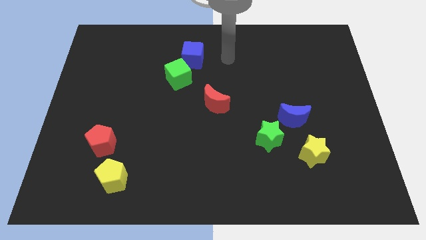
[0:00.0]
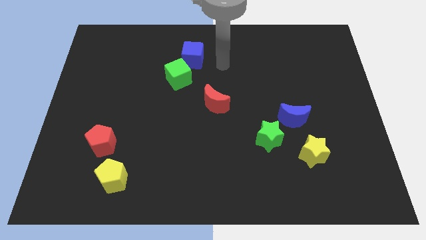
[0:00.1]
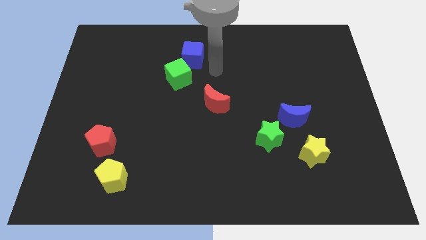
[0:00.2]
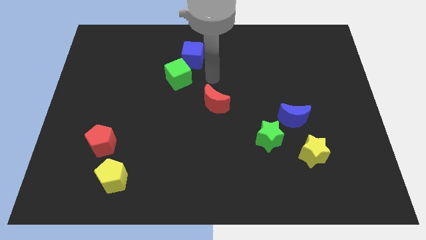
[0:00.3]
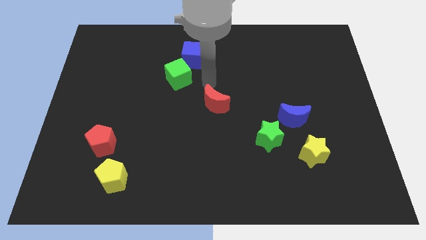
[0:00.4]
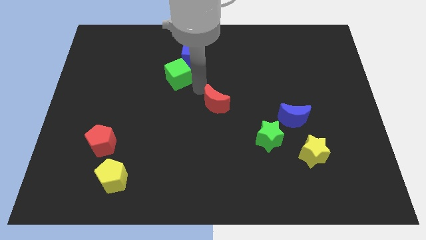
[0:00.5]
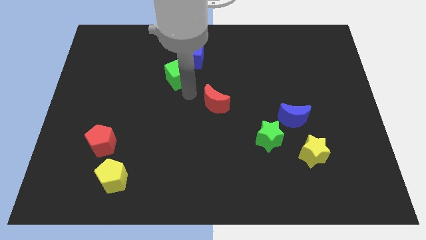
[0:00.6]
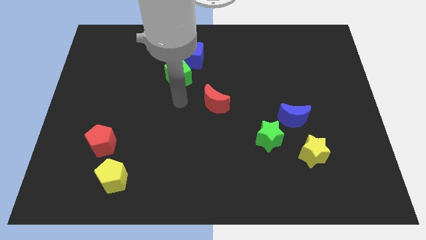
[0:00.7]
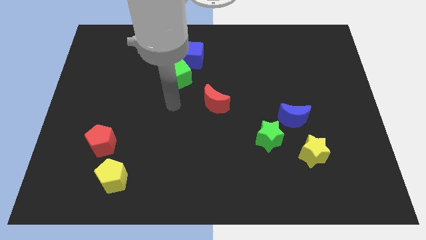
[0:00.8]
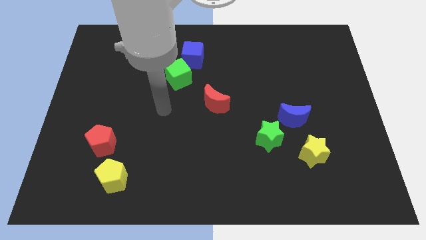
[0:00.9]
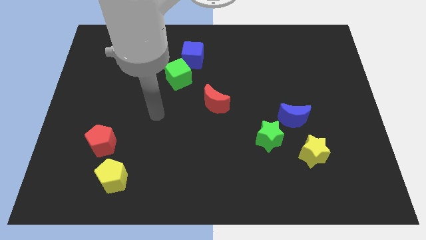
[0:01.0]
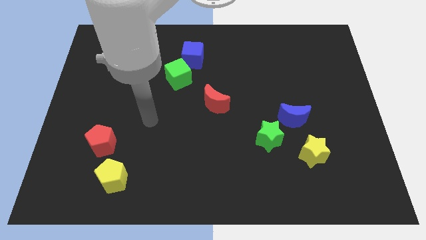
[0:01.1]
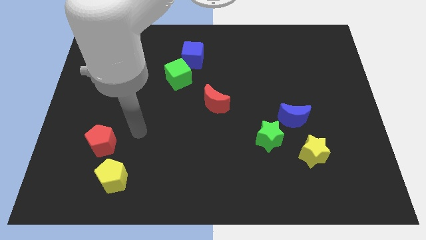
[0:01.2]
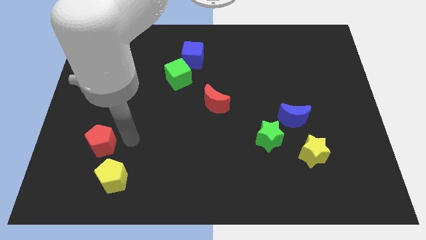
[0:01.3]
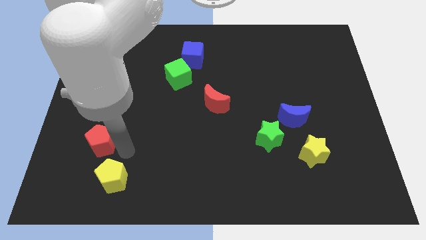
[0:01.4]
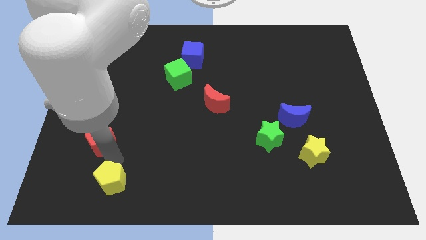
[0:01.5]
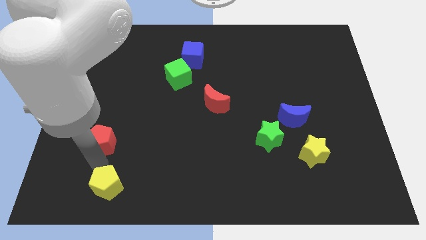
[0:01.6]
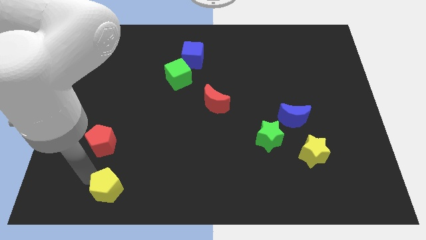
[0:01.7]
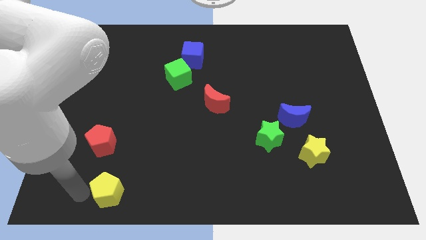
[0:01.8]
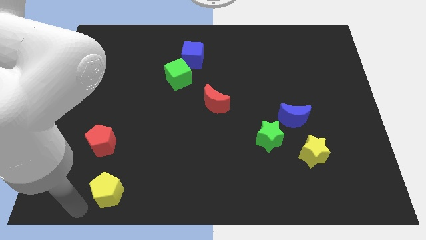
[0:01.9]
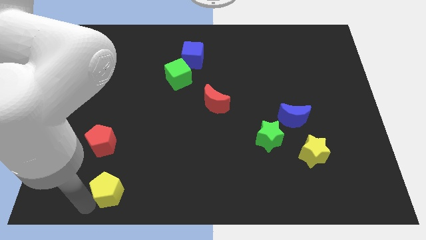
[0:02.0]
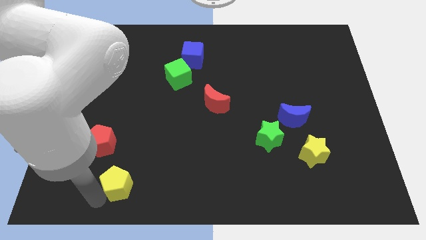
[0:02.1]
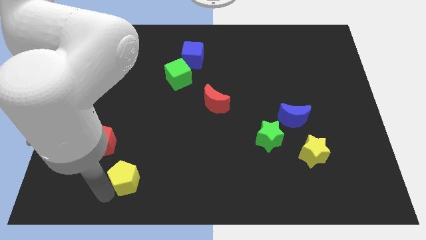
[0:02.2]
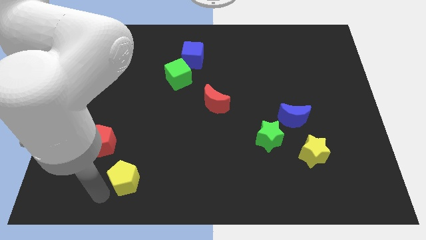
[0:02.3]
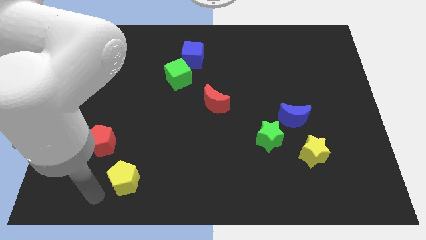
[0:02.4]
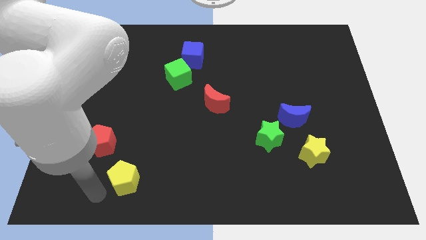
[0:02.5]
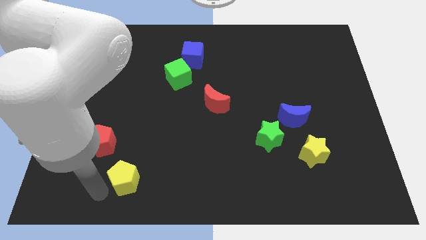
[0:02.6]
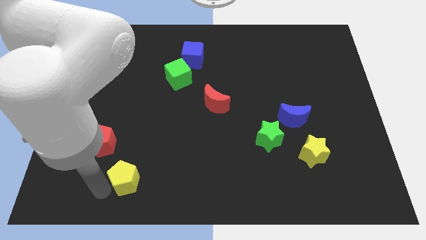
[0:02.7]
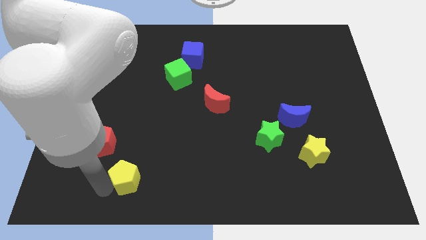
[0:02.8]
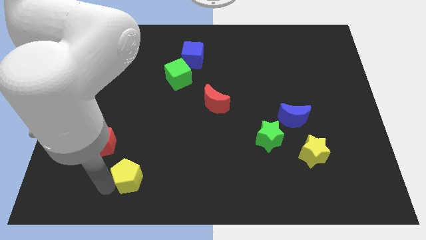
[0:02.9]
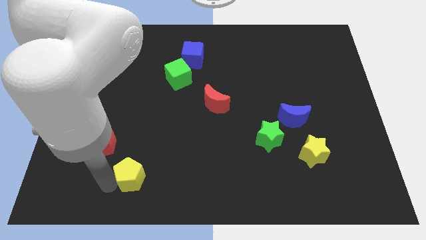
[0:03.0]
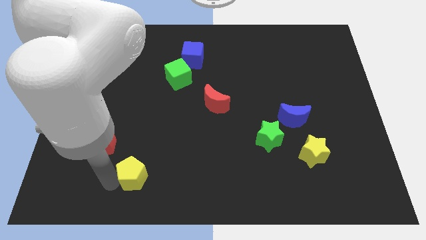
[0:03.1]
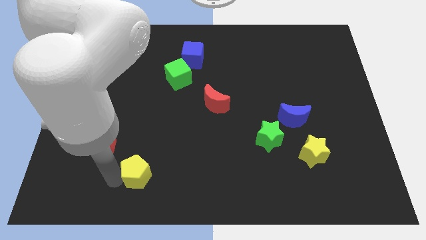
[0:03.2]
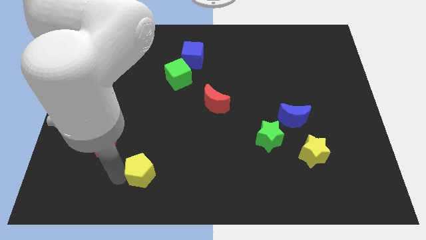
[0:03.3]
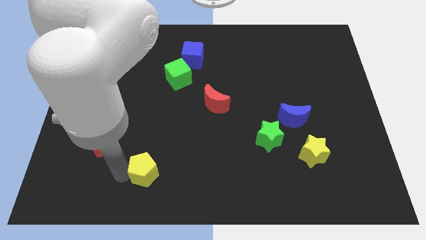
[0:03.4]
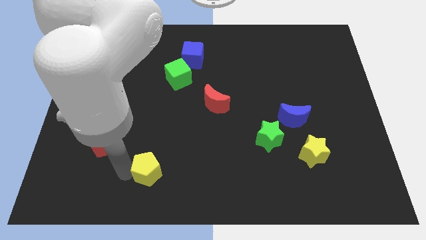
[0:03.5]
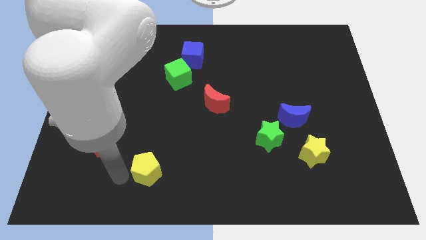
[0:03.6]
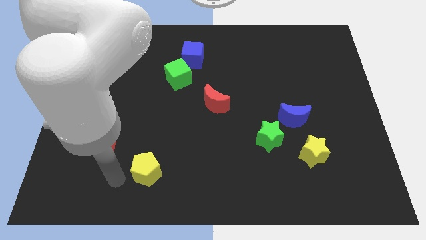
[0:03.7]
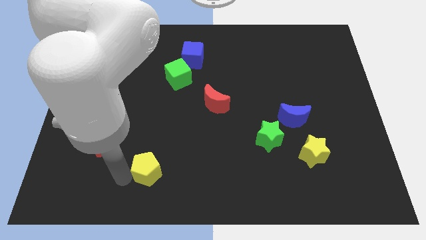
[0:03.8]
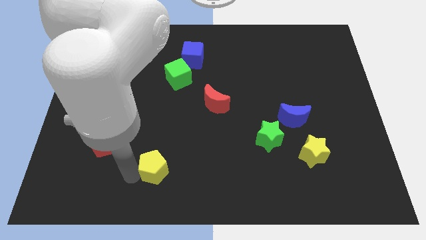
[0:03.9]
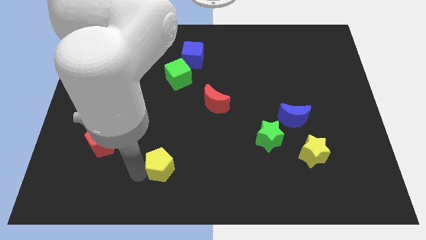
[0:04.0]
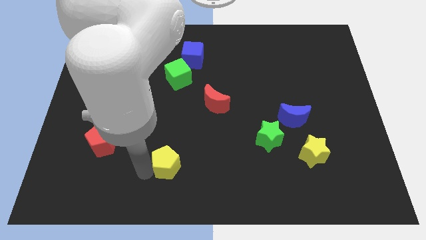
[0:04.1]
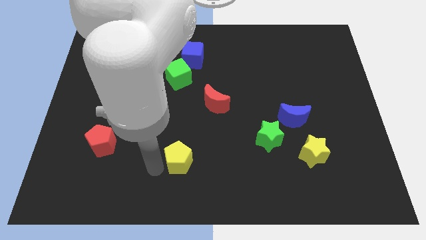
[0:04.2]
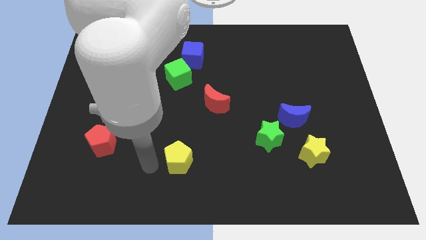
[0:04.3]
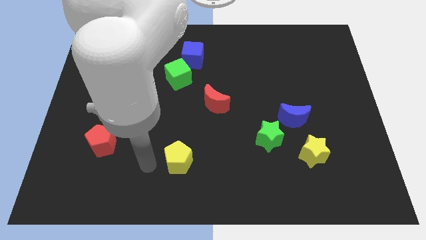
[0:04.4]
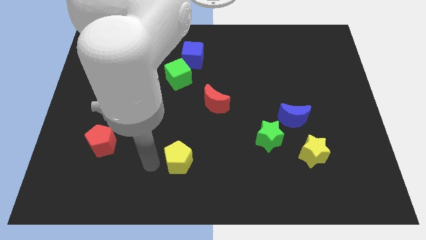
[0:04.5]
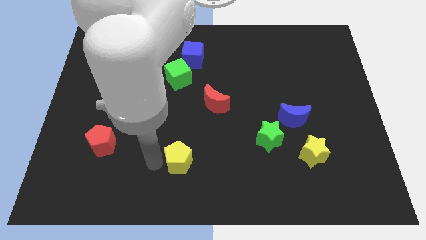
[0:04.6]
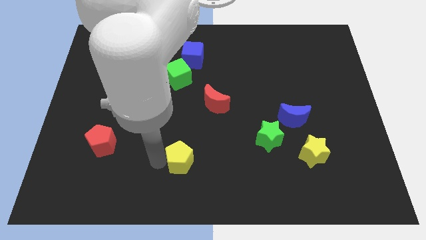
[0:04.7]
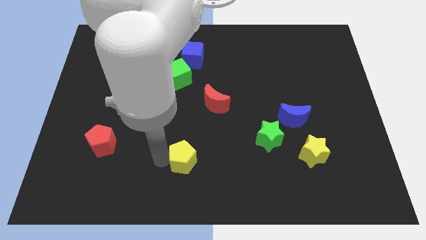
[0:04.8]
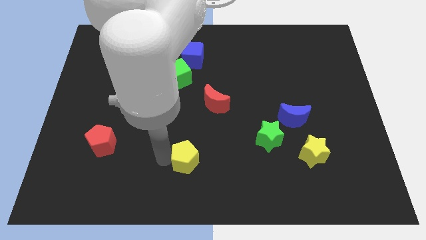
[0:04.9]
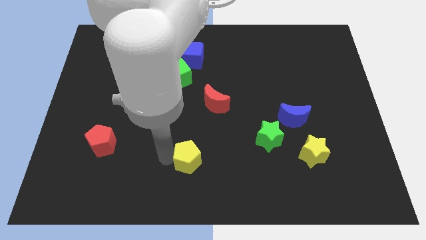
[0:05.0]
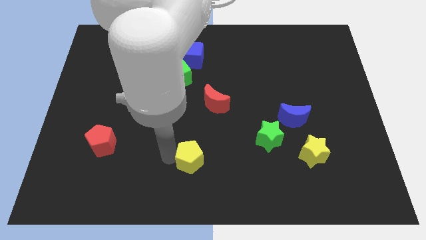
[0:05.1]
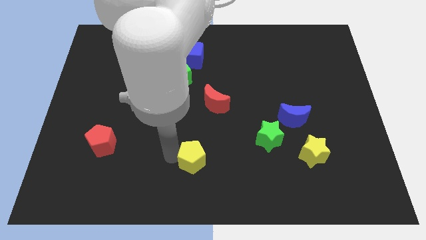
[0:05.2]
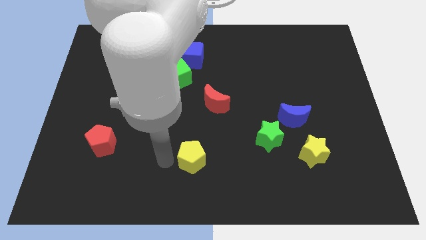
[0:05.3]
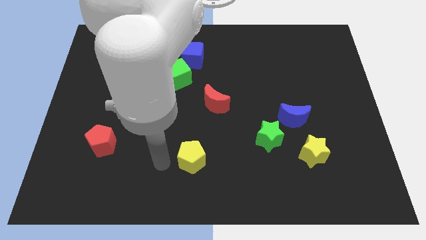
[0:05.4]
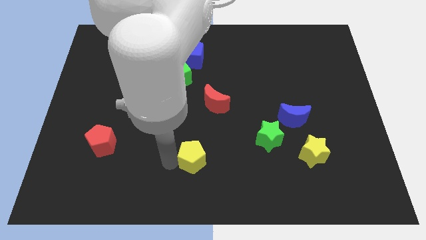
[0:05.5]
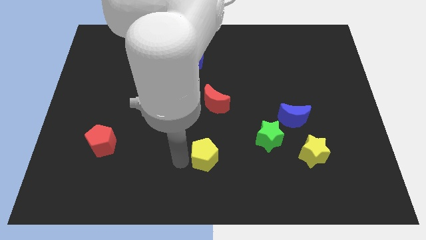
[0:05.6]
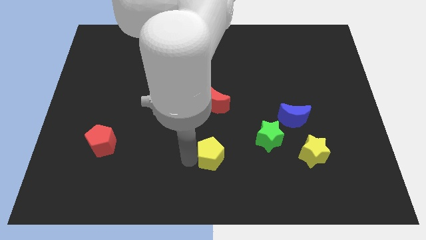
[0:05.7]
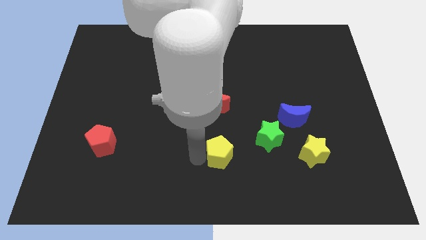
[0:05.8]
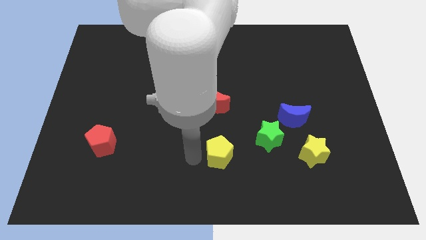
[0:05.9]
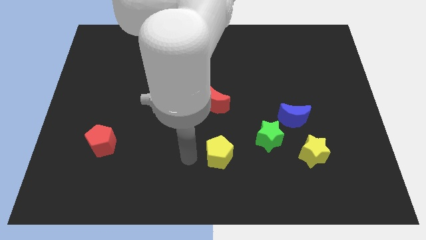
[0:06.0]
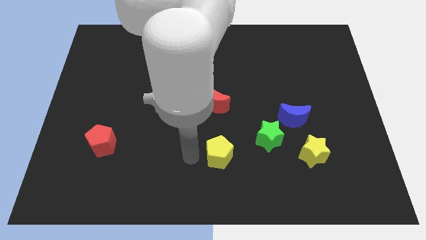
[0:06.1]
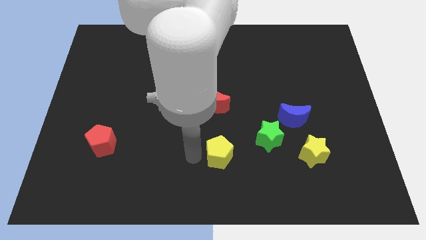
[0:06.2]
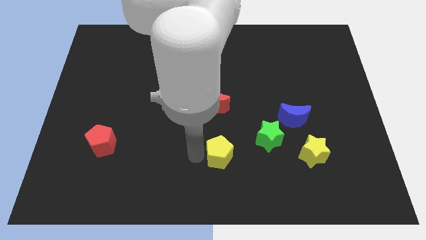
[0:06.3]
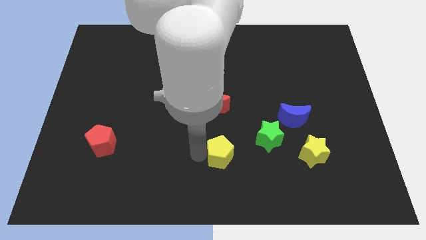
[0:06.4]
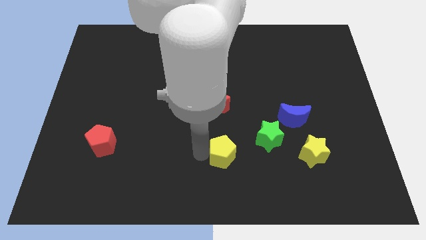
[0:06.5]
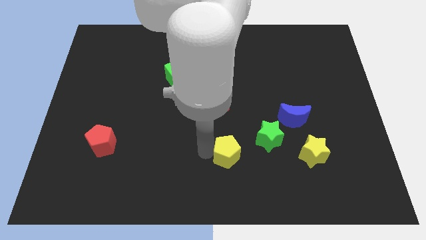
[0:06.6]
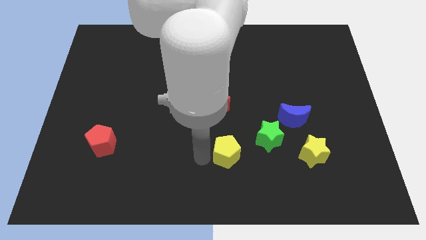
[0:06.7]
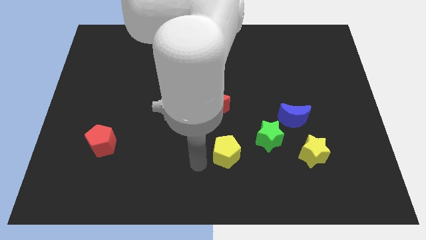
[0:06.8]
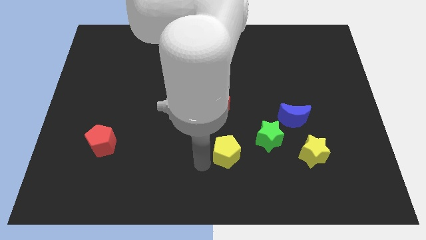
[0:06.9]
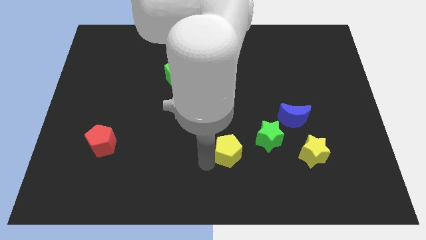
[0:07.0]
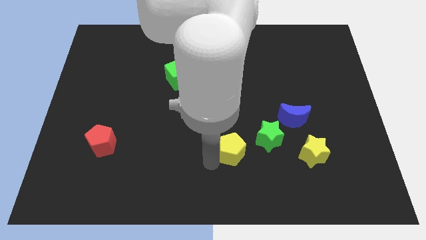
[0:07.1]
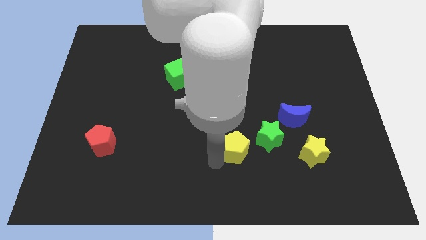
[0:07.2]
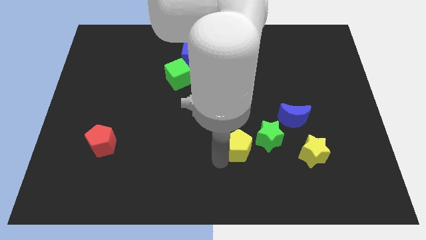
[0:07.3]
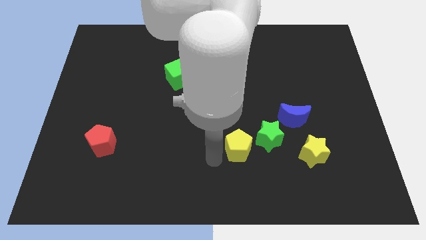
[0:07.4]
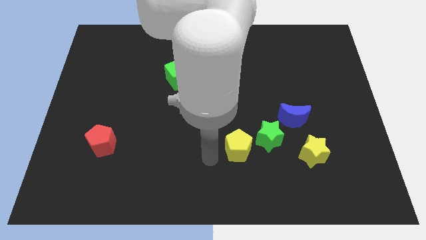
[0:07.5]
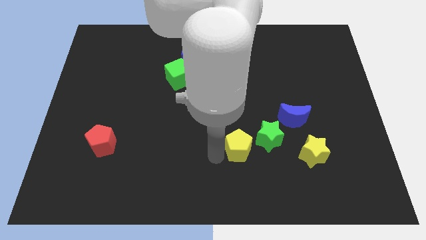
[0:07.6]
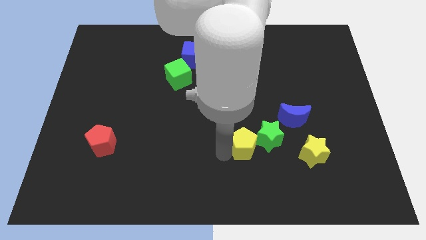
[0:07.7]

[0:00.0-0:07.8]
slide the yellow pentagon towards the green star
